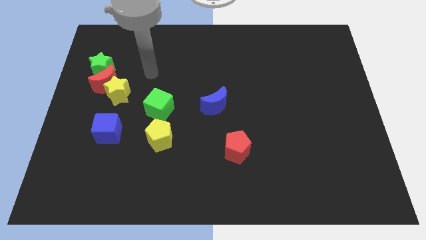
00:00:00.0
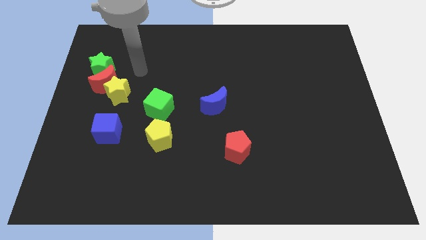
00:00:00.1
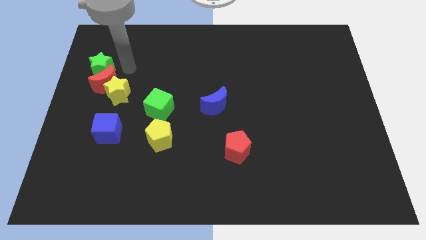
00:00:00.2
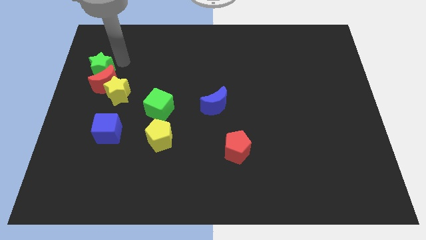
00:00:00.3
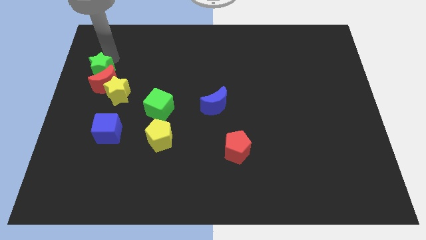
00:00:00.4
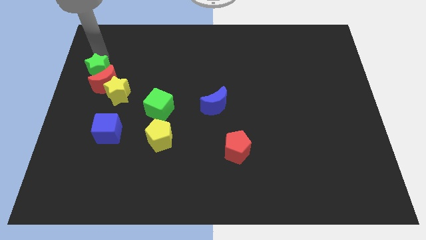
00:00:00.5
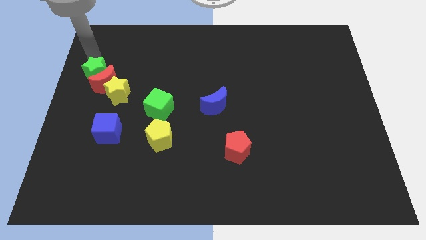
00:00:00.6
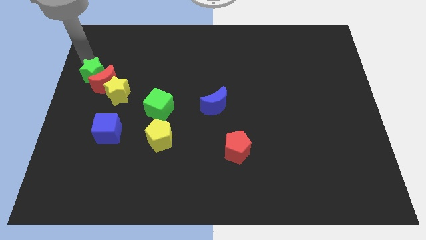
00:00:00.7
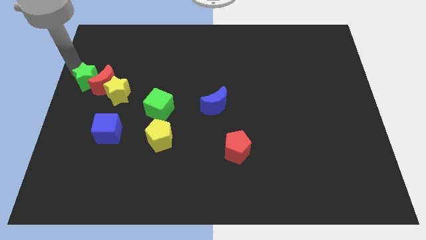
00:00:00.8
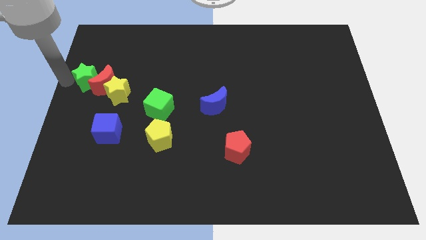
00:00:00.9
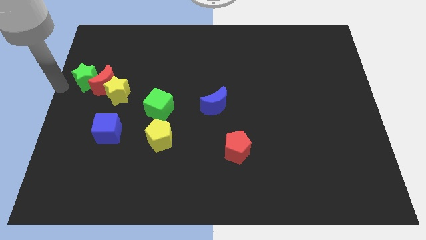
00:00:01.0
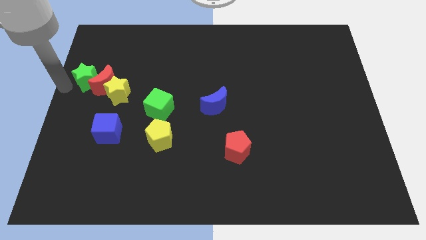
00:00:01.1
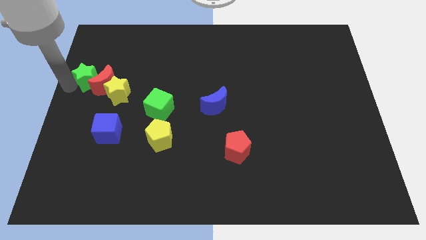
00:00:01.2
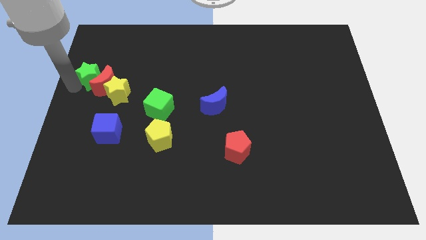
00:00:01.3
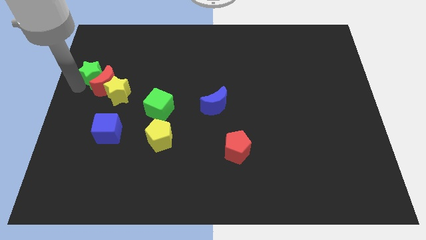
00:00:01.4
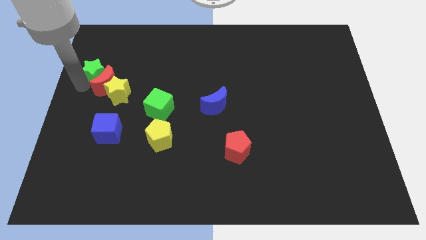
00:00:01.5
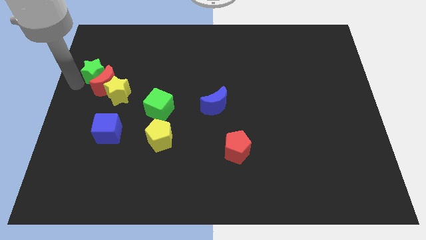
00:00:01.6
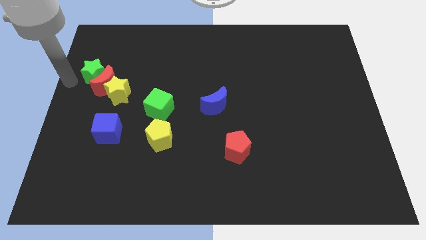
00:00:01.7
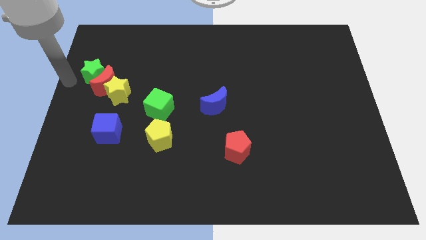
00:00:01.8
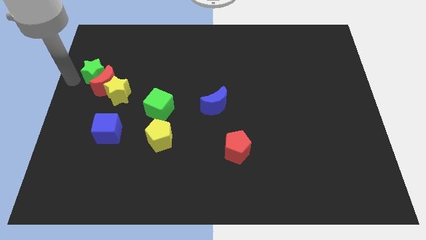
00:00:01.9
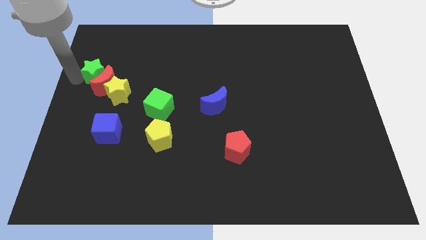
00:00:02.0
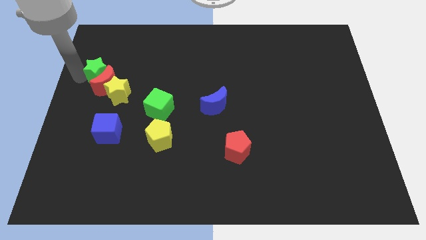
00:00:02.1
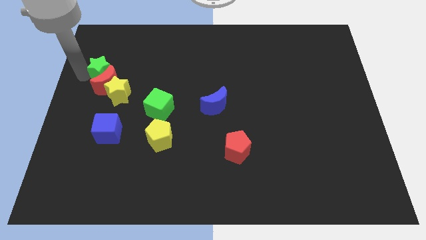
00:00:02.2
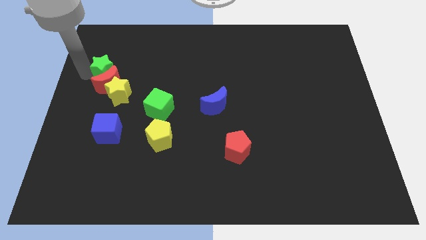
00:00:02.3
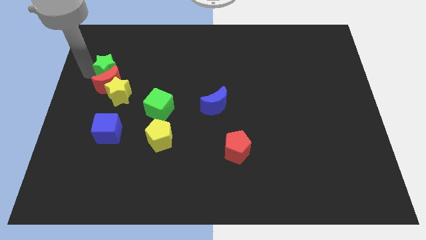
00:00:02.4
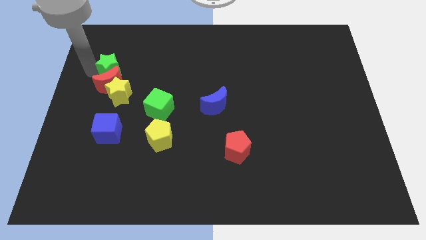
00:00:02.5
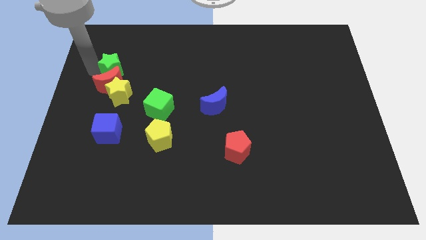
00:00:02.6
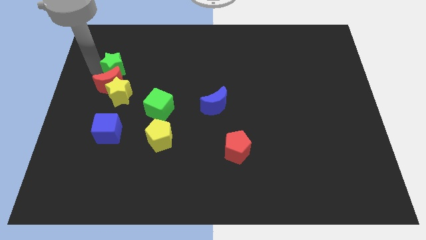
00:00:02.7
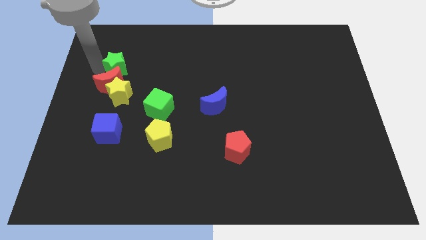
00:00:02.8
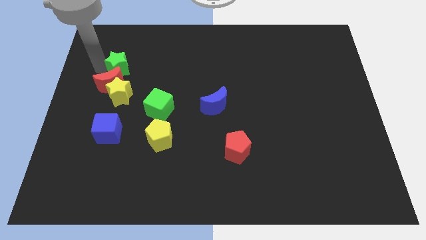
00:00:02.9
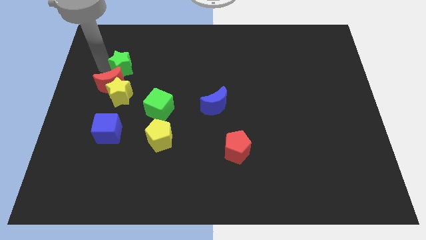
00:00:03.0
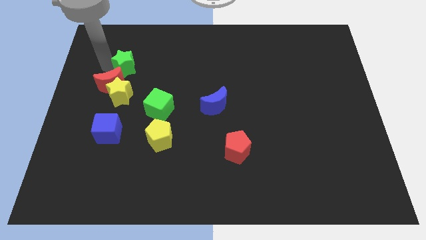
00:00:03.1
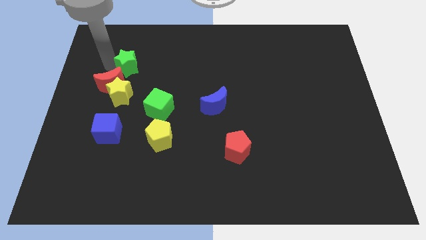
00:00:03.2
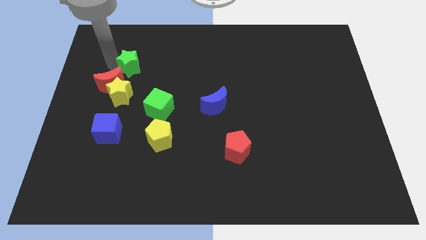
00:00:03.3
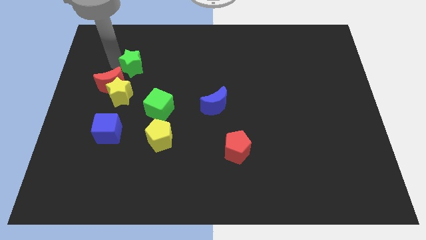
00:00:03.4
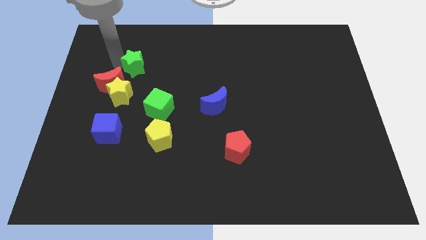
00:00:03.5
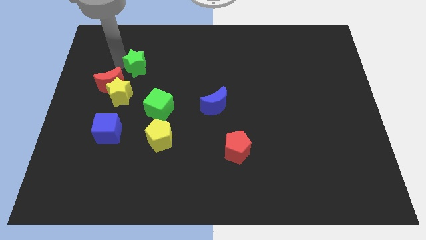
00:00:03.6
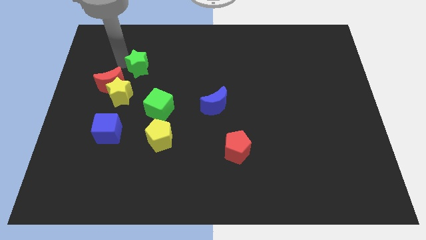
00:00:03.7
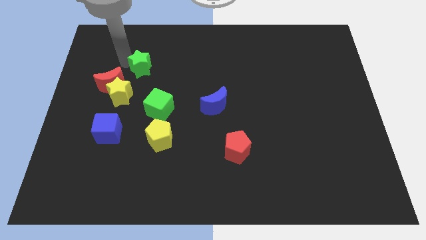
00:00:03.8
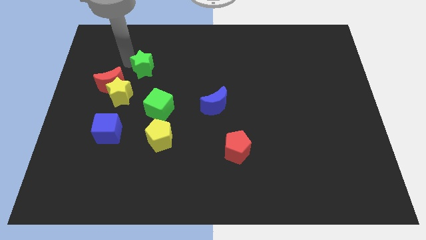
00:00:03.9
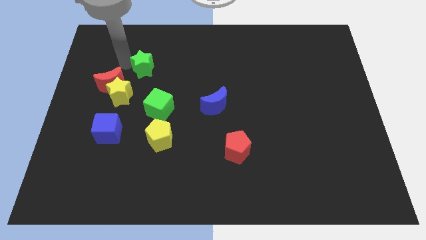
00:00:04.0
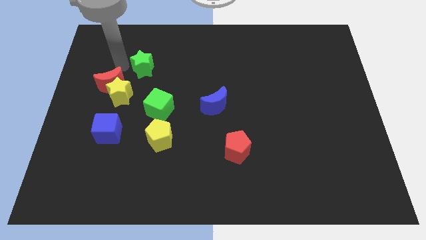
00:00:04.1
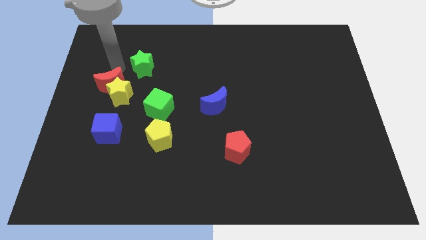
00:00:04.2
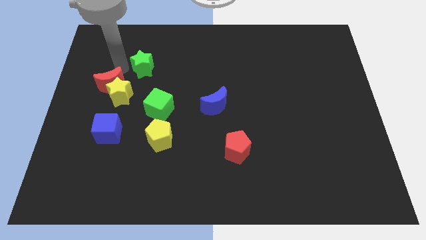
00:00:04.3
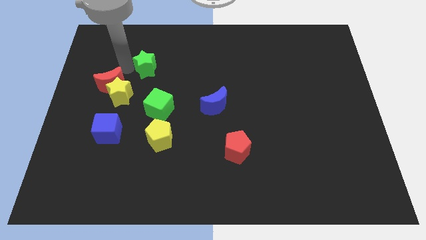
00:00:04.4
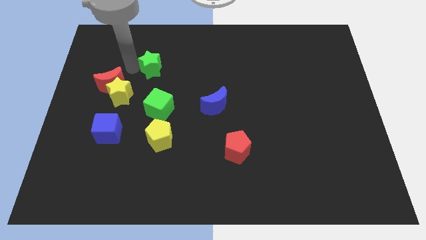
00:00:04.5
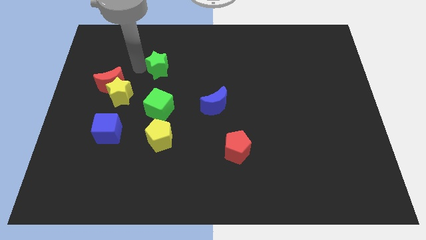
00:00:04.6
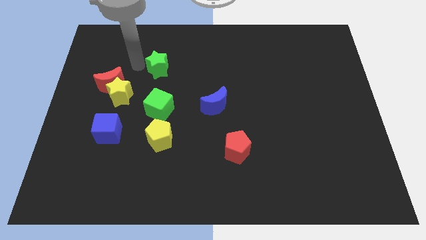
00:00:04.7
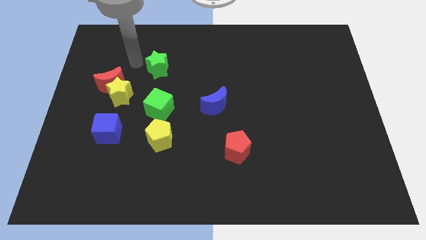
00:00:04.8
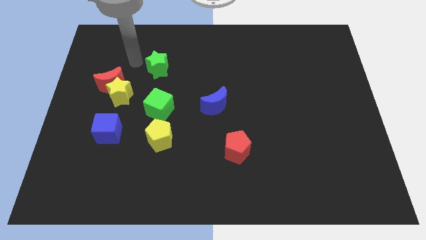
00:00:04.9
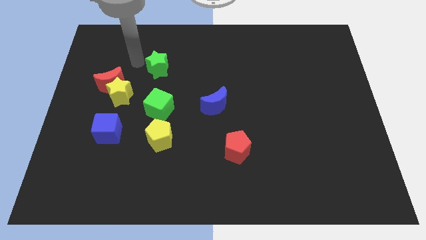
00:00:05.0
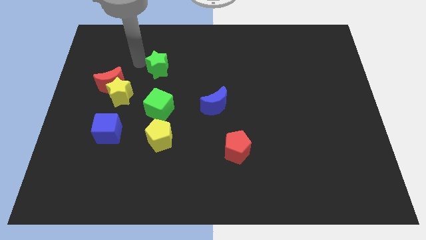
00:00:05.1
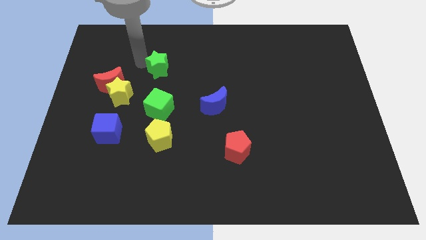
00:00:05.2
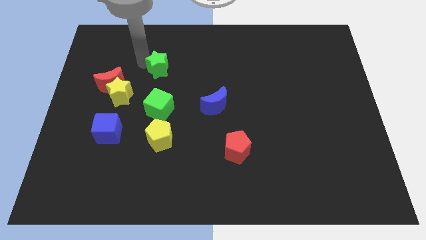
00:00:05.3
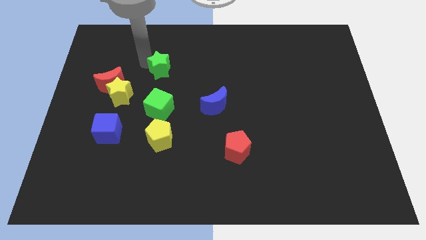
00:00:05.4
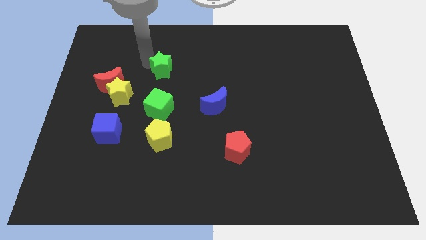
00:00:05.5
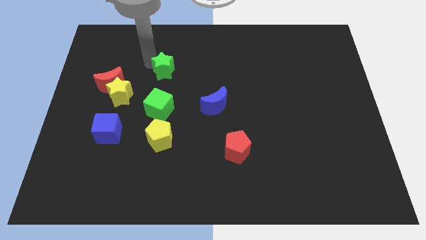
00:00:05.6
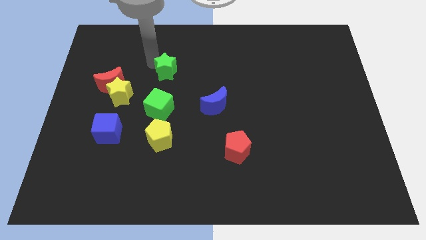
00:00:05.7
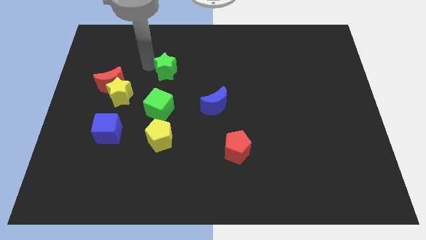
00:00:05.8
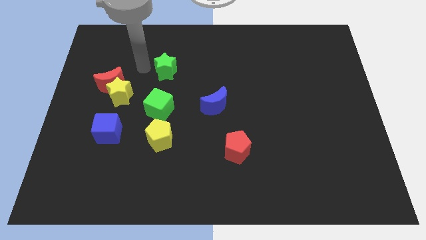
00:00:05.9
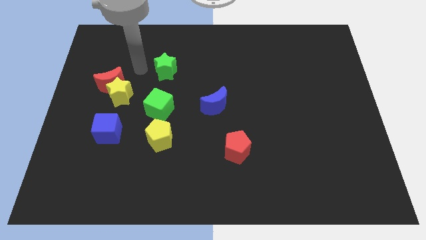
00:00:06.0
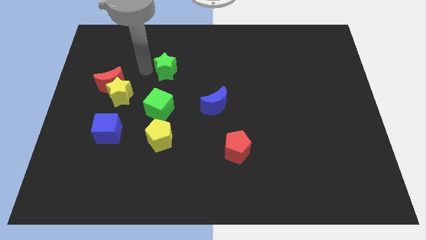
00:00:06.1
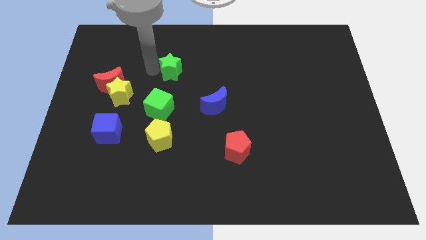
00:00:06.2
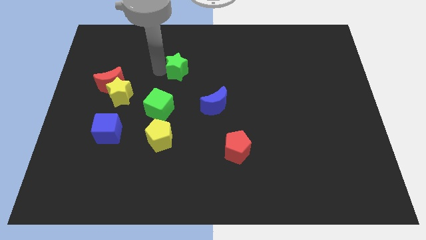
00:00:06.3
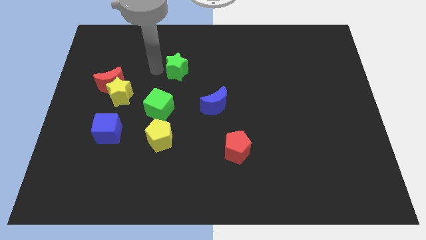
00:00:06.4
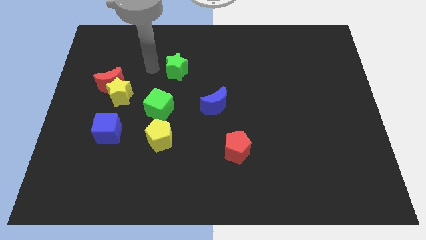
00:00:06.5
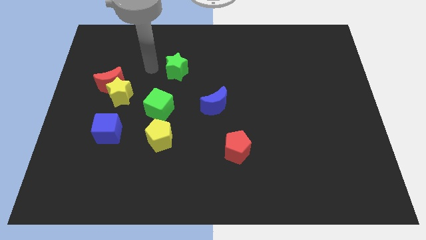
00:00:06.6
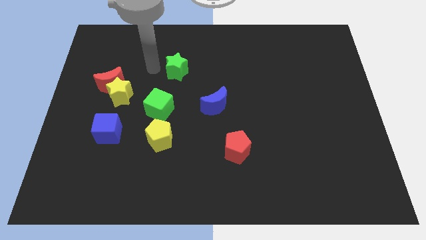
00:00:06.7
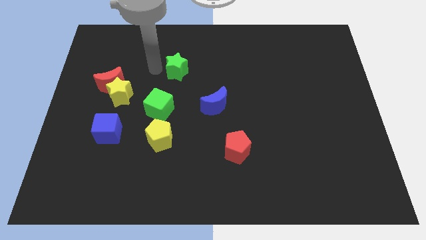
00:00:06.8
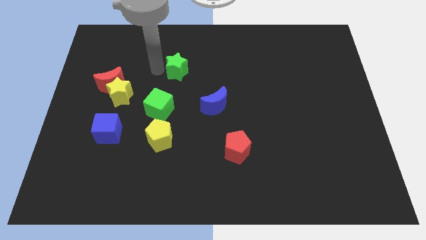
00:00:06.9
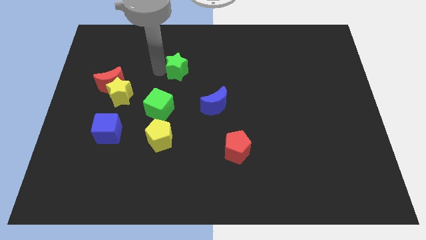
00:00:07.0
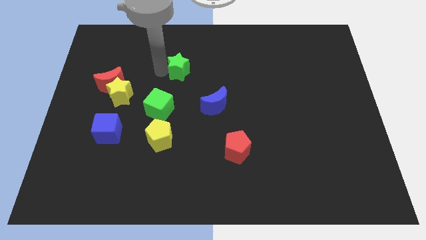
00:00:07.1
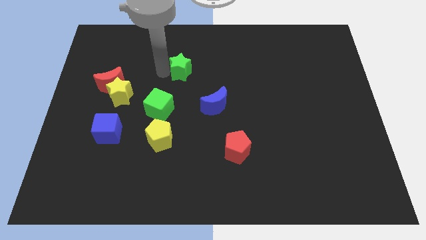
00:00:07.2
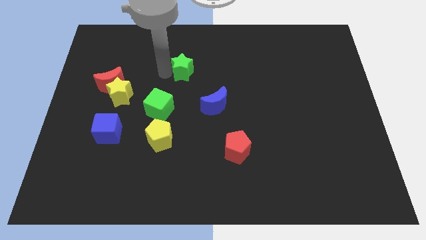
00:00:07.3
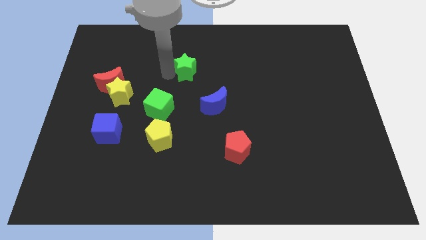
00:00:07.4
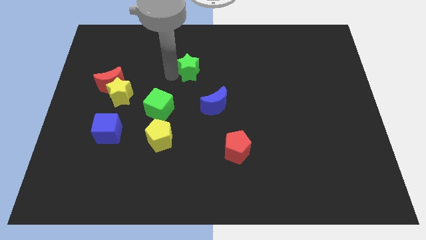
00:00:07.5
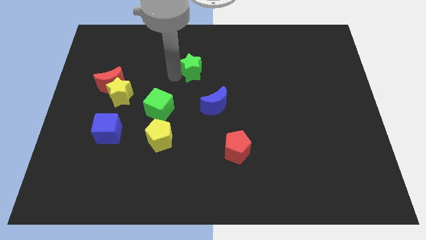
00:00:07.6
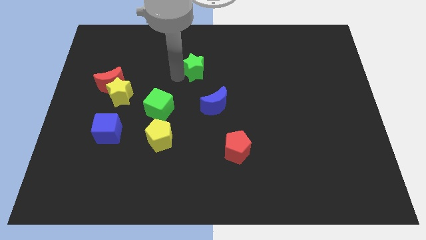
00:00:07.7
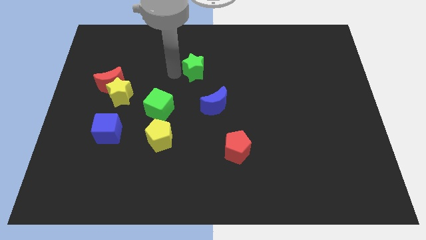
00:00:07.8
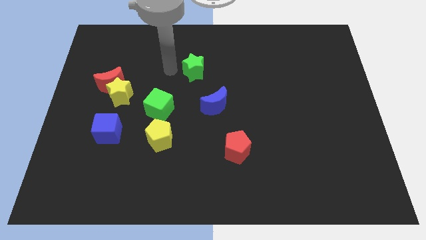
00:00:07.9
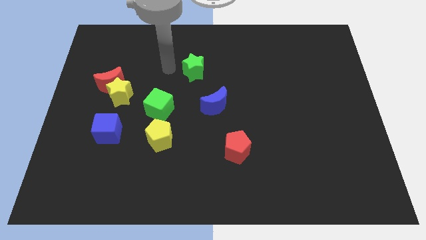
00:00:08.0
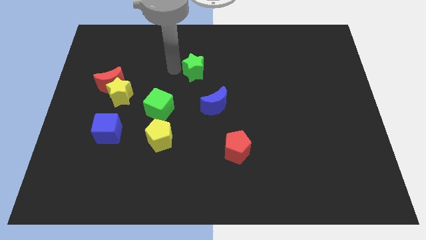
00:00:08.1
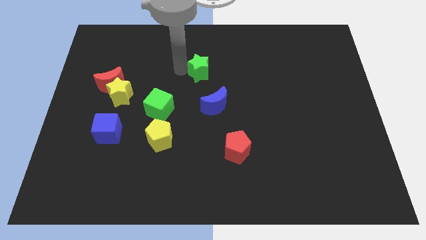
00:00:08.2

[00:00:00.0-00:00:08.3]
push the green star to the top side of the blue moon
